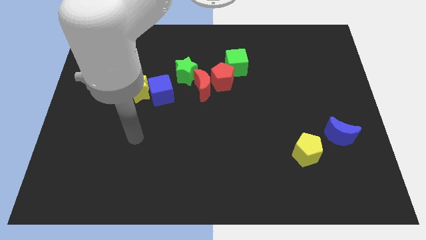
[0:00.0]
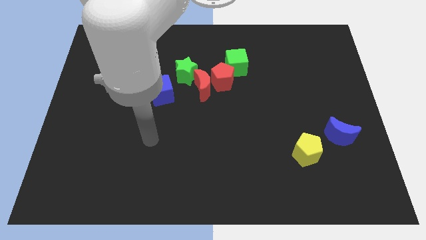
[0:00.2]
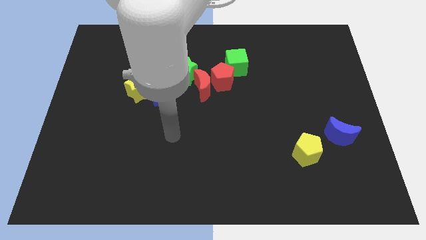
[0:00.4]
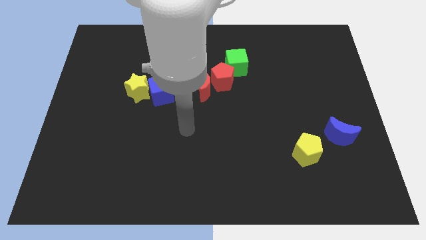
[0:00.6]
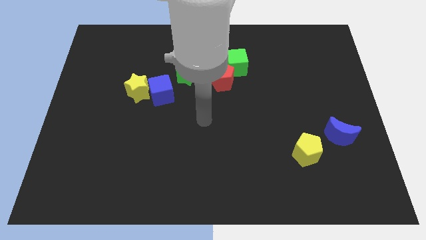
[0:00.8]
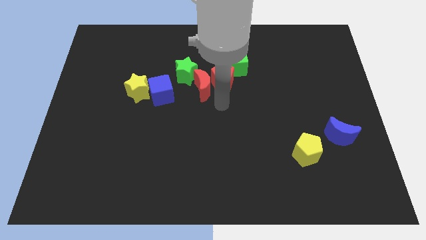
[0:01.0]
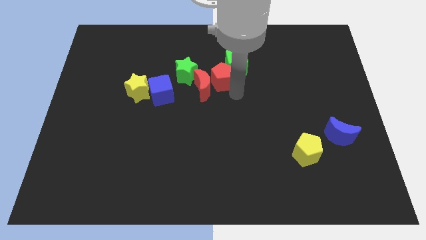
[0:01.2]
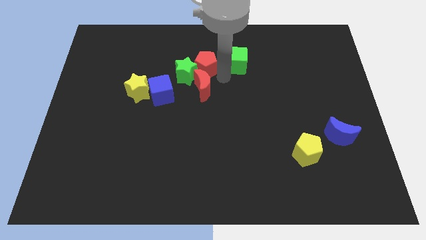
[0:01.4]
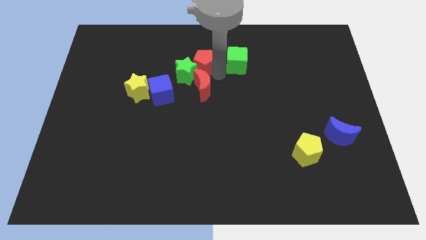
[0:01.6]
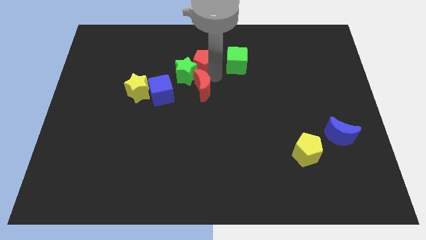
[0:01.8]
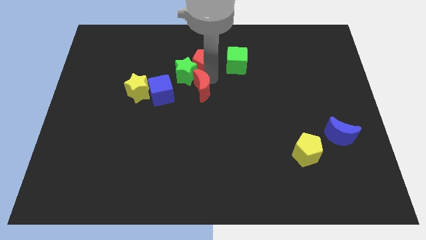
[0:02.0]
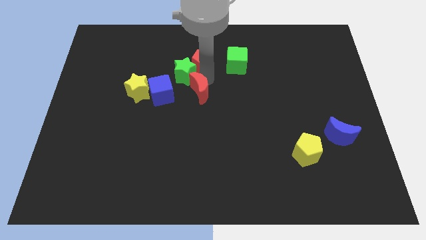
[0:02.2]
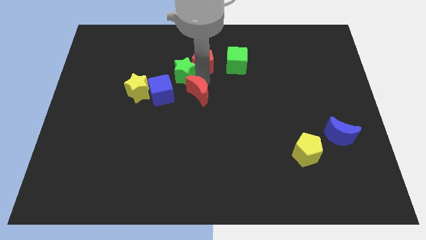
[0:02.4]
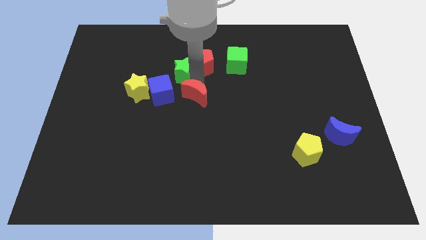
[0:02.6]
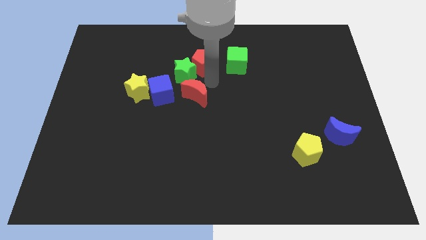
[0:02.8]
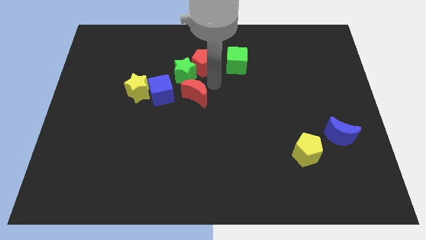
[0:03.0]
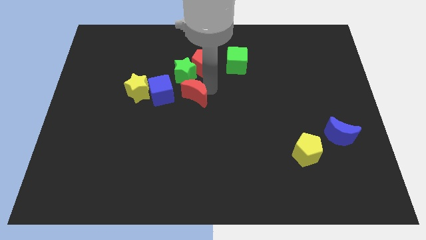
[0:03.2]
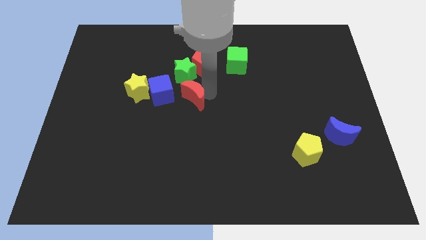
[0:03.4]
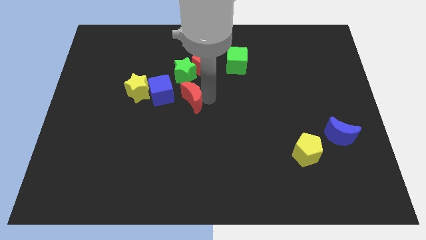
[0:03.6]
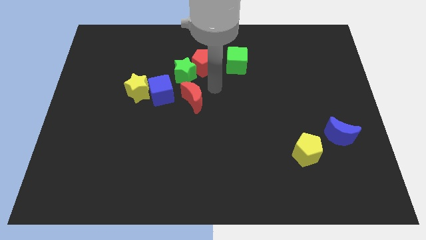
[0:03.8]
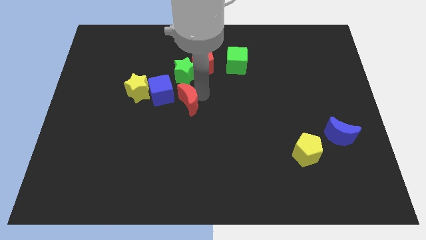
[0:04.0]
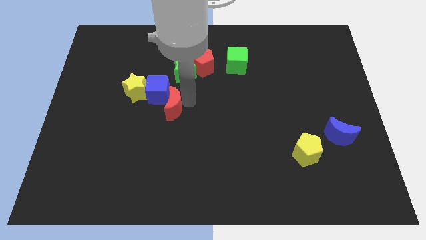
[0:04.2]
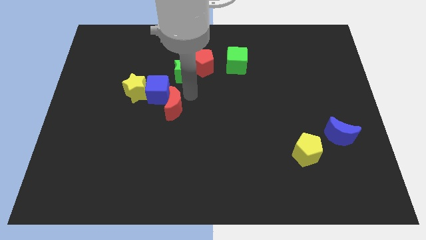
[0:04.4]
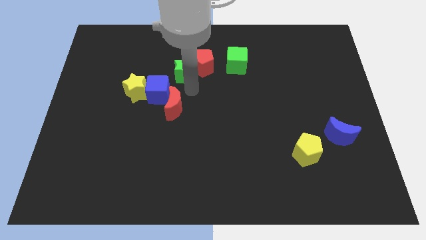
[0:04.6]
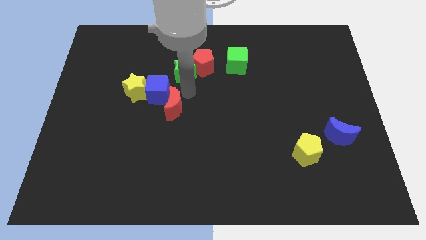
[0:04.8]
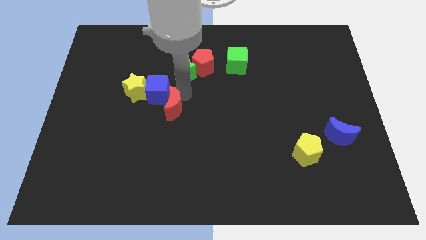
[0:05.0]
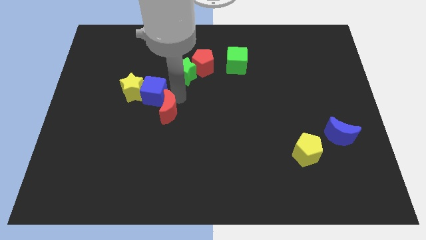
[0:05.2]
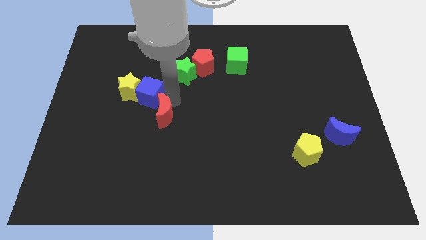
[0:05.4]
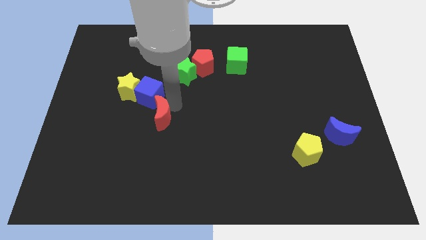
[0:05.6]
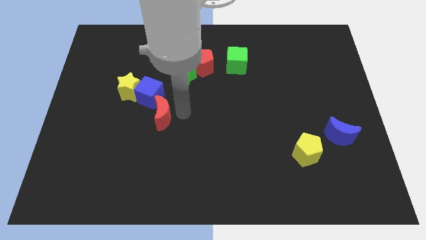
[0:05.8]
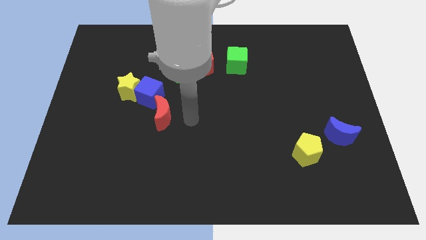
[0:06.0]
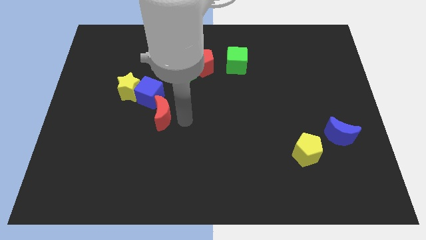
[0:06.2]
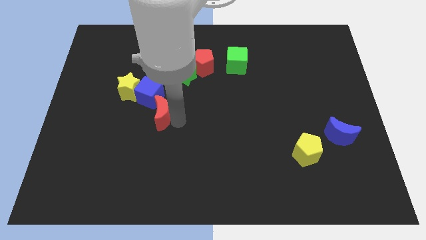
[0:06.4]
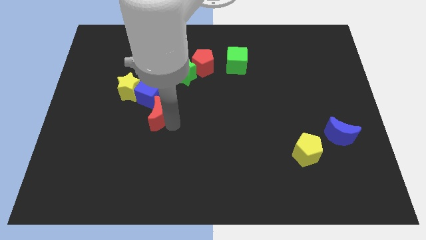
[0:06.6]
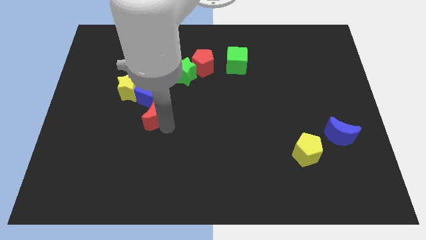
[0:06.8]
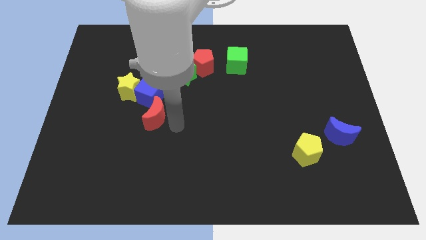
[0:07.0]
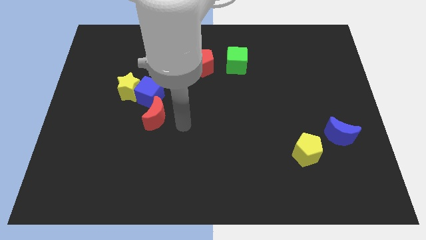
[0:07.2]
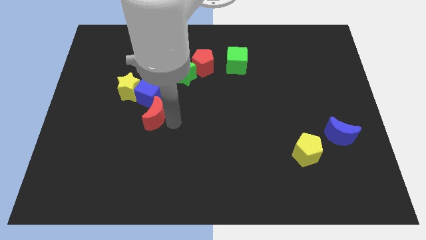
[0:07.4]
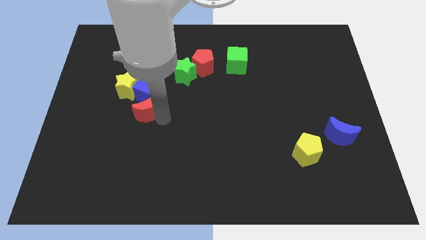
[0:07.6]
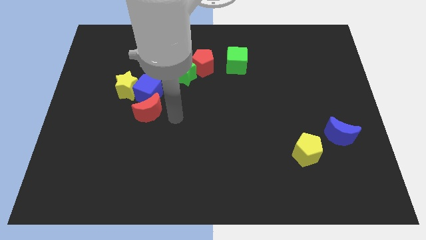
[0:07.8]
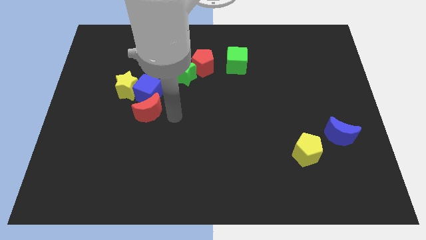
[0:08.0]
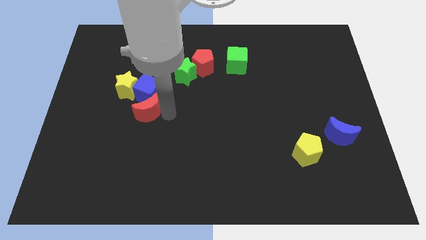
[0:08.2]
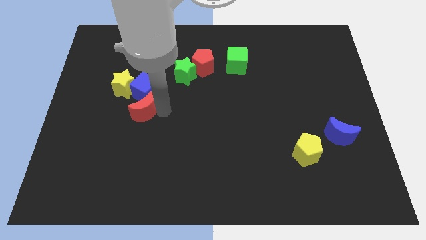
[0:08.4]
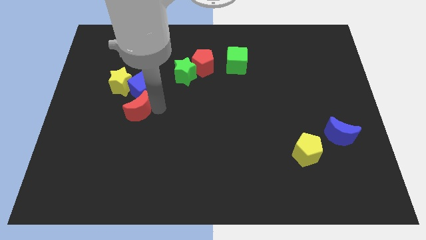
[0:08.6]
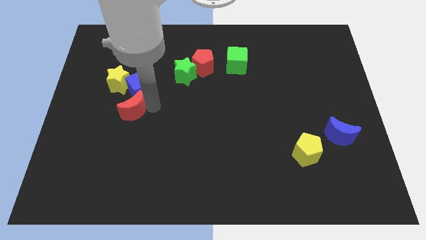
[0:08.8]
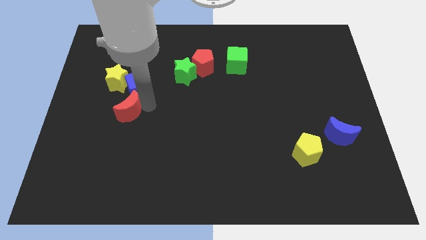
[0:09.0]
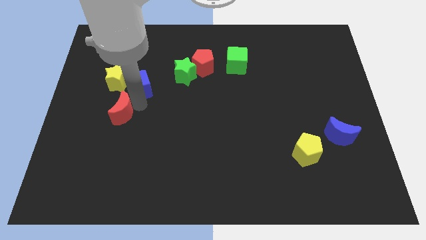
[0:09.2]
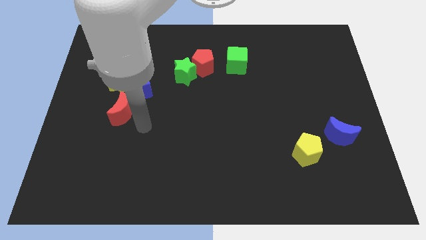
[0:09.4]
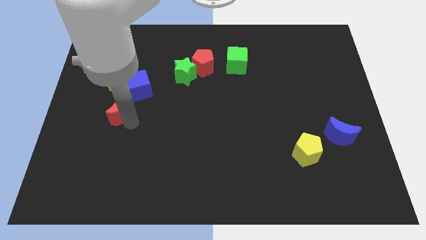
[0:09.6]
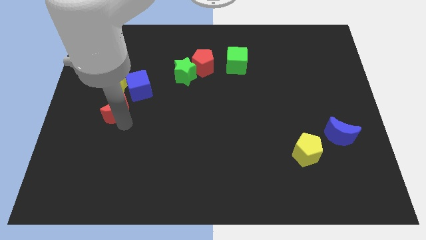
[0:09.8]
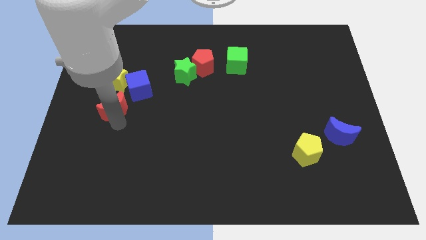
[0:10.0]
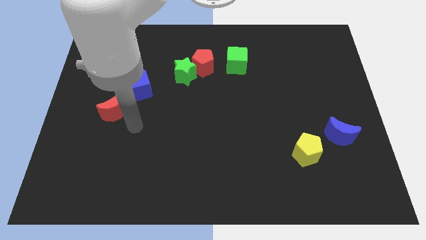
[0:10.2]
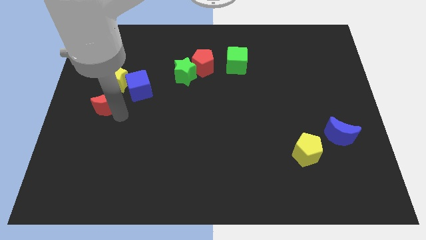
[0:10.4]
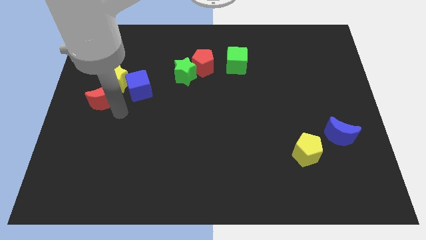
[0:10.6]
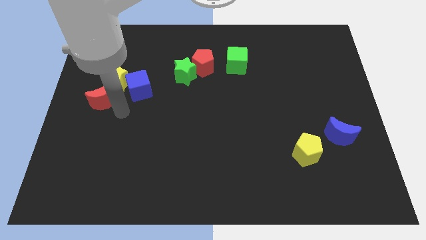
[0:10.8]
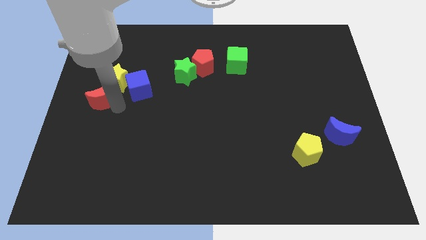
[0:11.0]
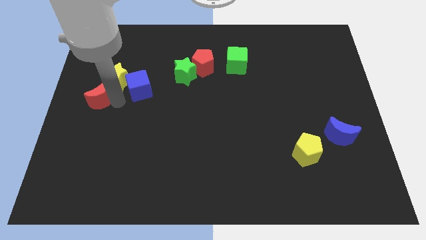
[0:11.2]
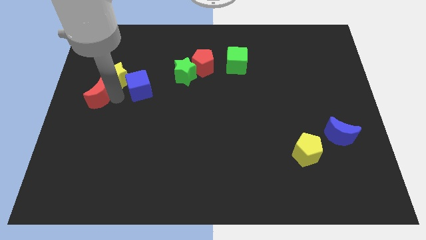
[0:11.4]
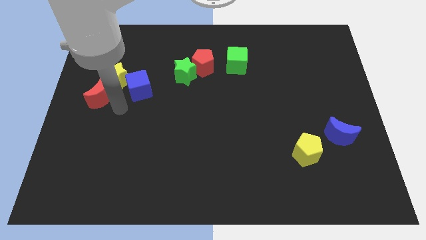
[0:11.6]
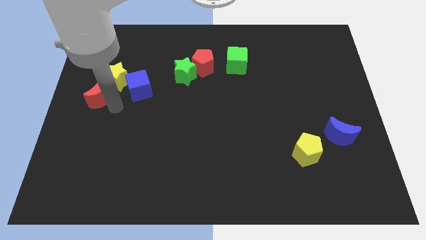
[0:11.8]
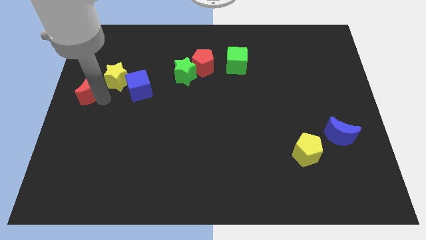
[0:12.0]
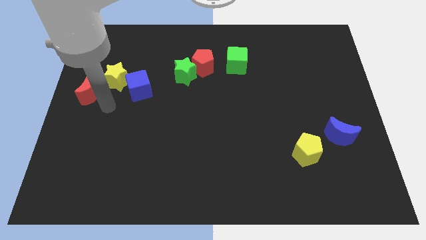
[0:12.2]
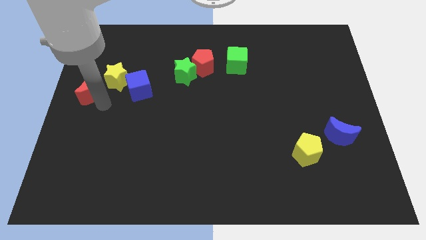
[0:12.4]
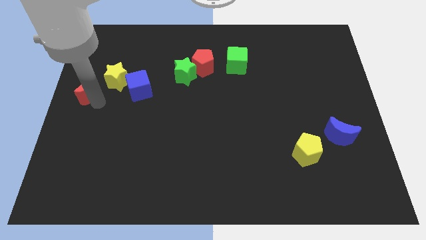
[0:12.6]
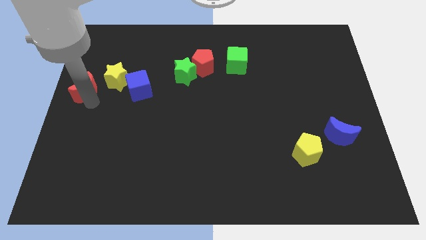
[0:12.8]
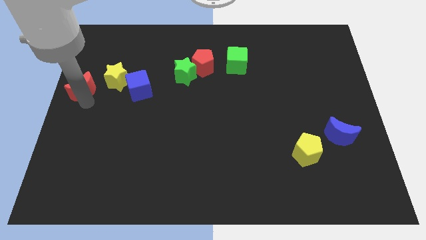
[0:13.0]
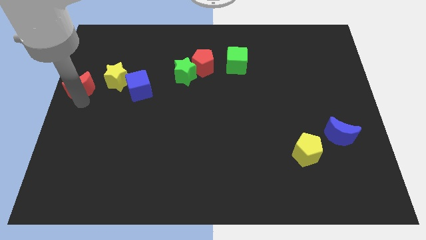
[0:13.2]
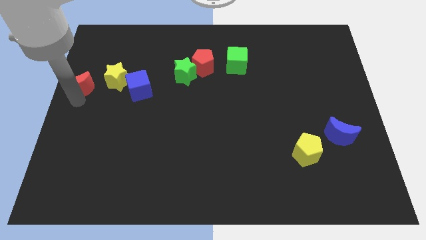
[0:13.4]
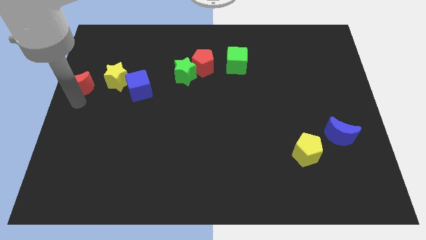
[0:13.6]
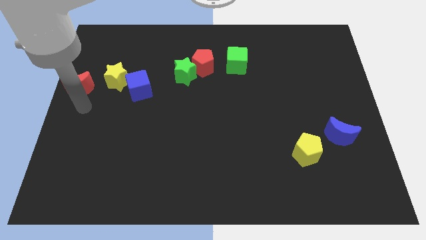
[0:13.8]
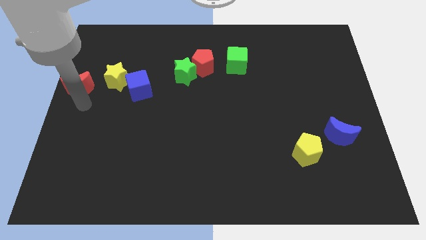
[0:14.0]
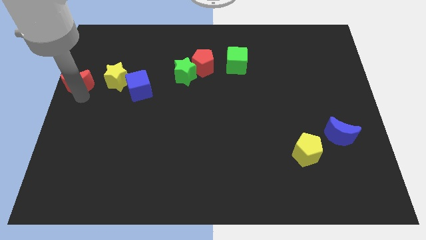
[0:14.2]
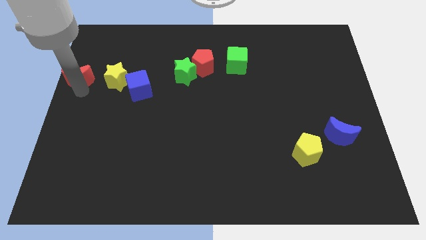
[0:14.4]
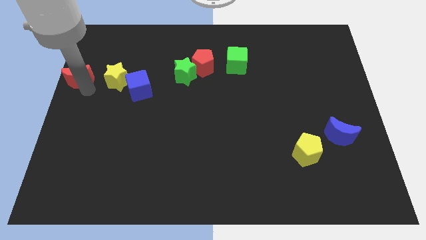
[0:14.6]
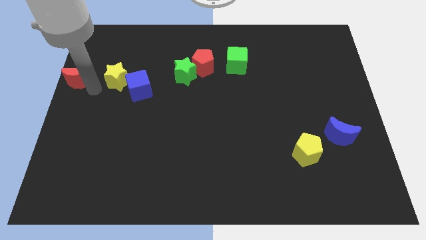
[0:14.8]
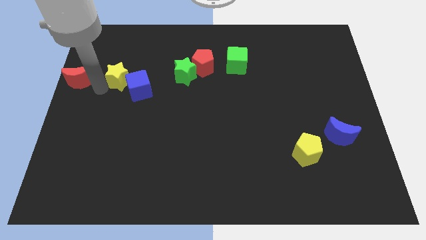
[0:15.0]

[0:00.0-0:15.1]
move the red moon to the left side of the yellow star
